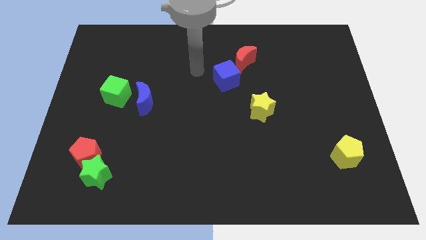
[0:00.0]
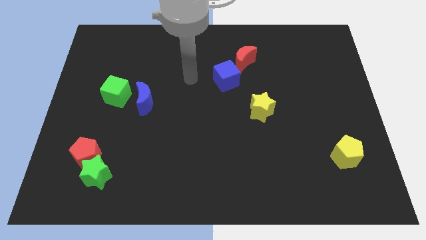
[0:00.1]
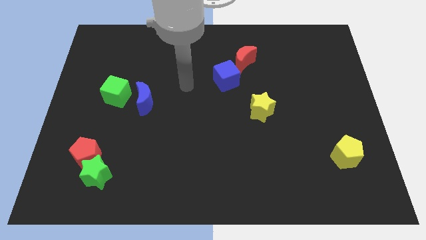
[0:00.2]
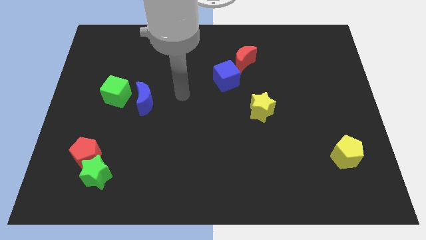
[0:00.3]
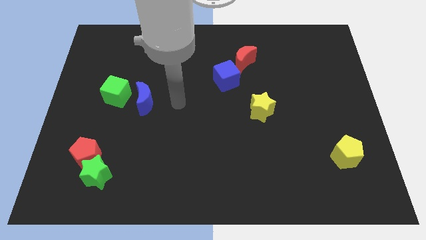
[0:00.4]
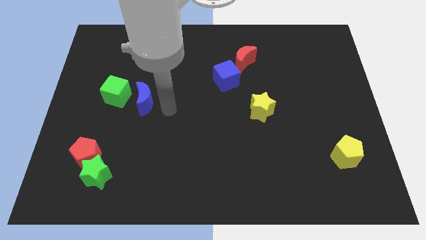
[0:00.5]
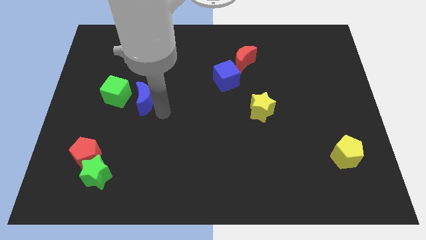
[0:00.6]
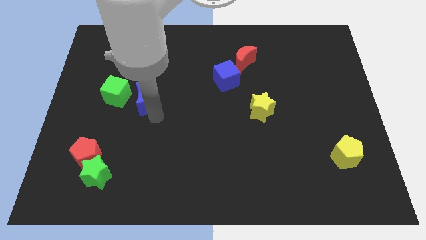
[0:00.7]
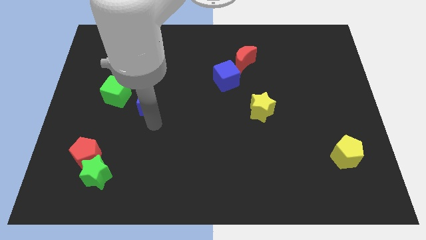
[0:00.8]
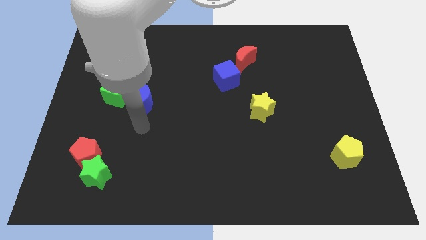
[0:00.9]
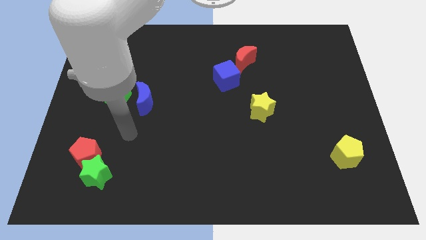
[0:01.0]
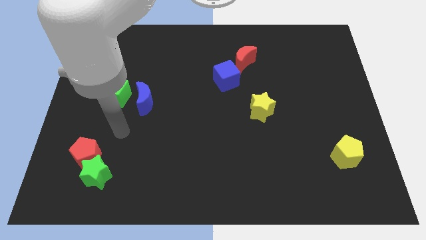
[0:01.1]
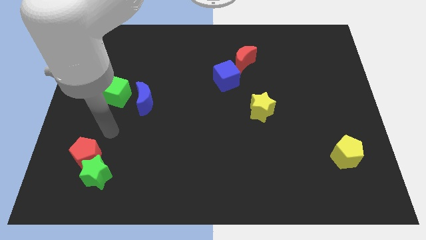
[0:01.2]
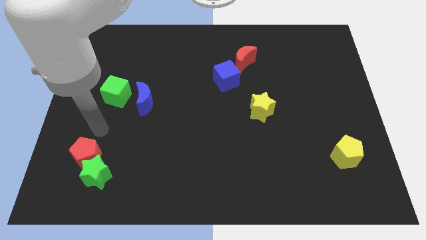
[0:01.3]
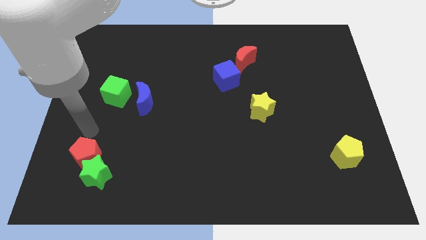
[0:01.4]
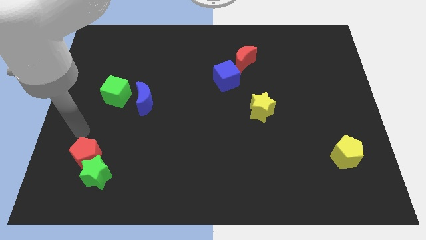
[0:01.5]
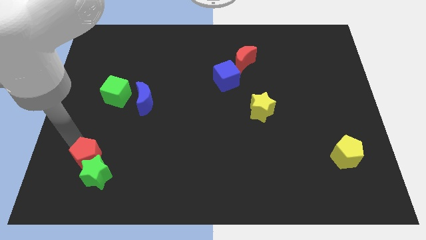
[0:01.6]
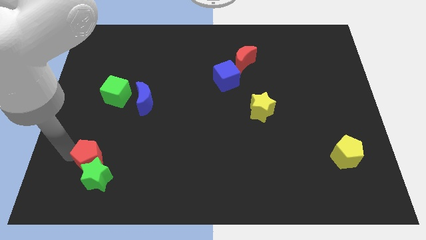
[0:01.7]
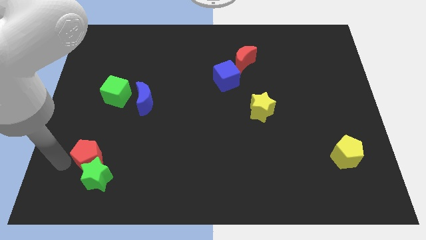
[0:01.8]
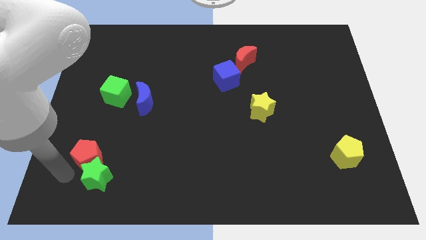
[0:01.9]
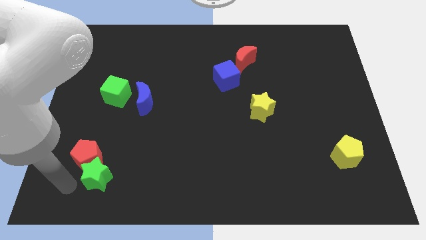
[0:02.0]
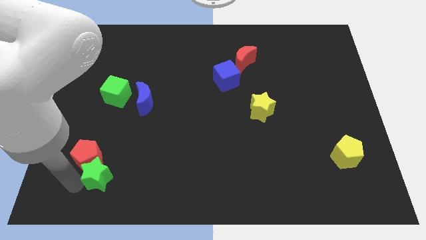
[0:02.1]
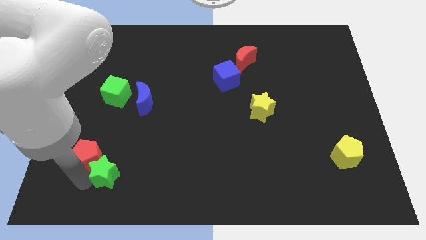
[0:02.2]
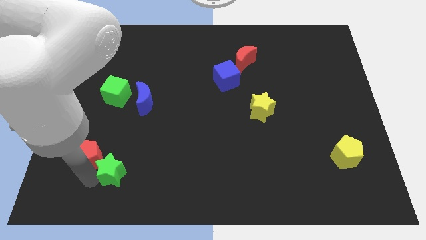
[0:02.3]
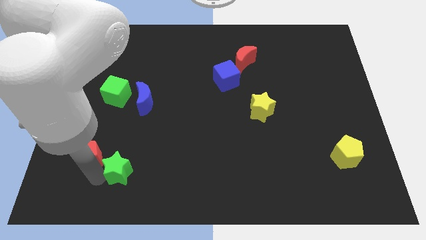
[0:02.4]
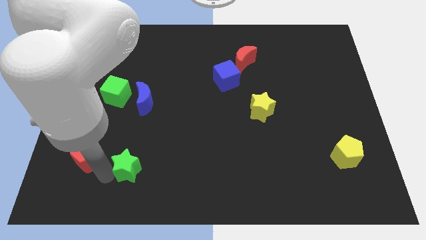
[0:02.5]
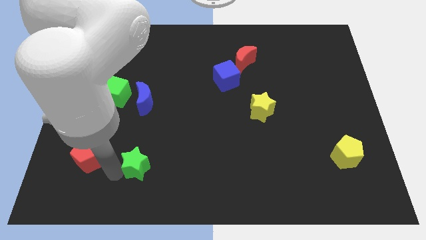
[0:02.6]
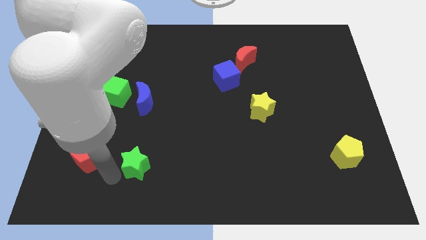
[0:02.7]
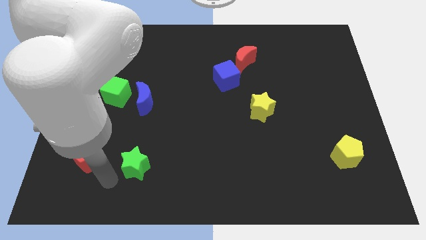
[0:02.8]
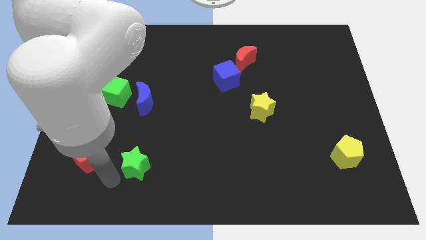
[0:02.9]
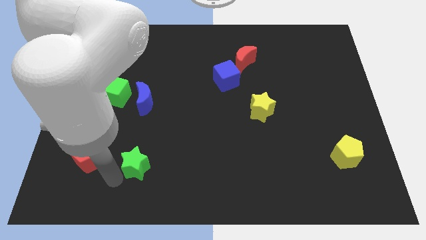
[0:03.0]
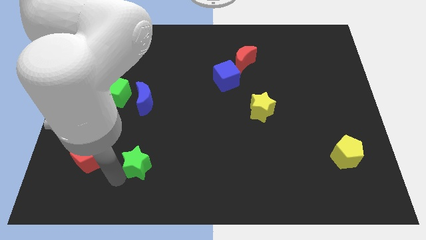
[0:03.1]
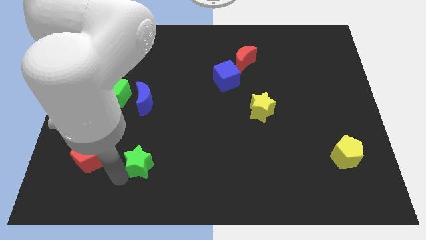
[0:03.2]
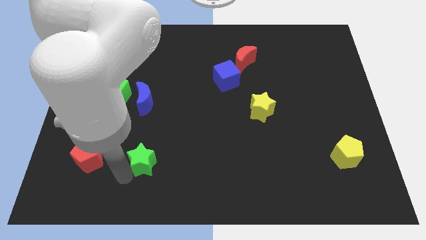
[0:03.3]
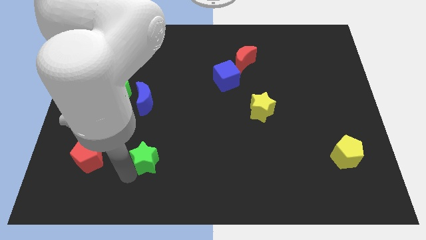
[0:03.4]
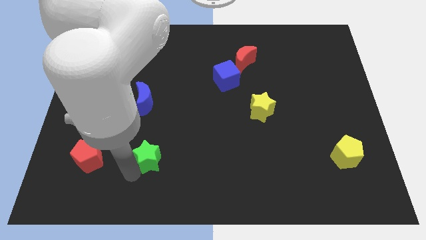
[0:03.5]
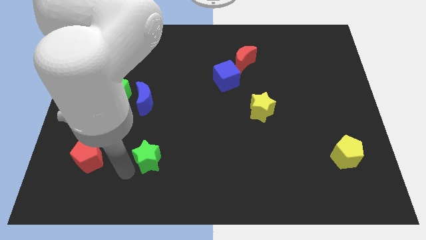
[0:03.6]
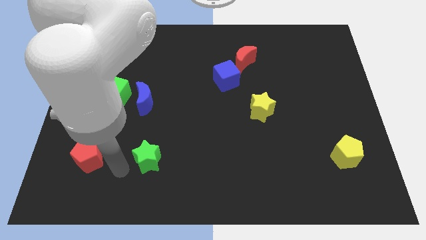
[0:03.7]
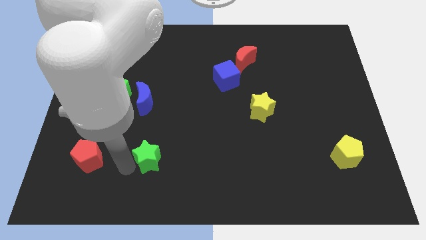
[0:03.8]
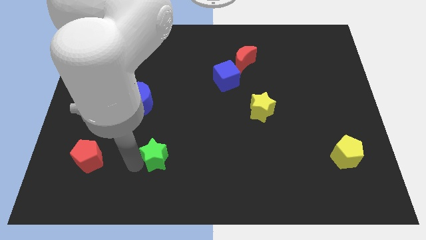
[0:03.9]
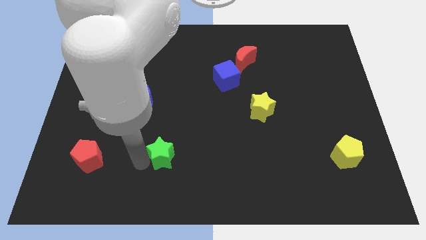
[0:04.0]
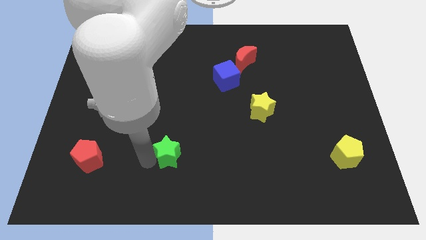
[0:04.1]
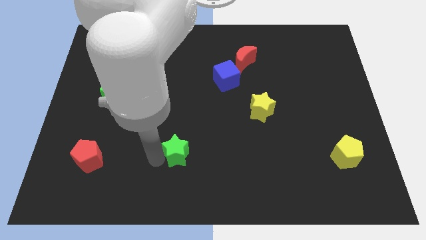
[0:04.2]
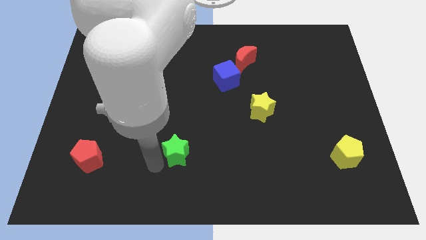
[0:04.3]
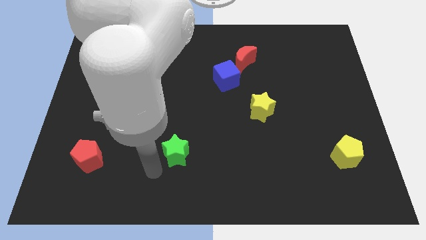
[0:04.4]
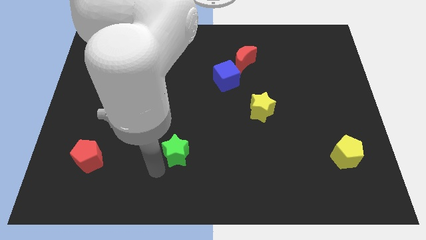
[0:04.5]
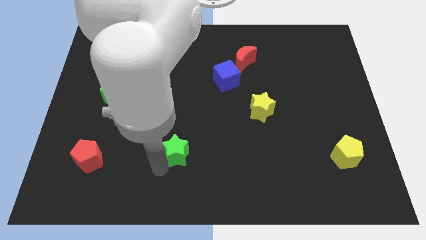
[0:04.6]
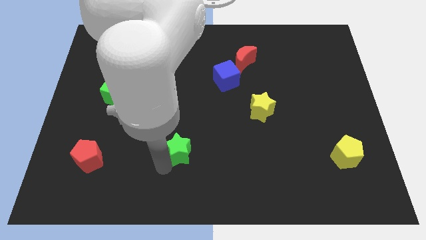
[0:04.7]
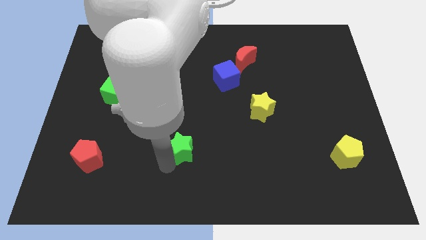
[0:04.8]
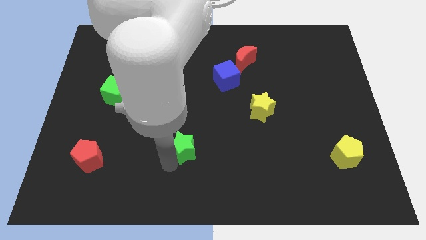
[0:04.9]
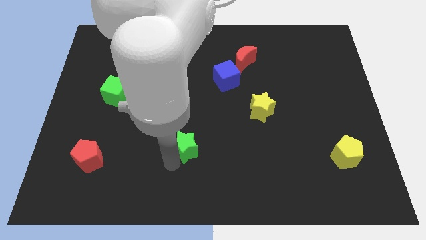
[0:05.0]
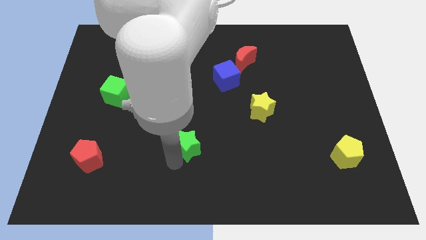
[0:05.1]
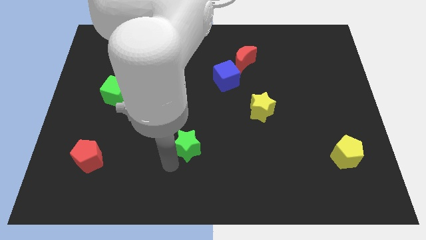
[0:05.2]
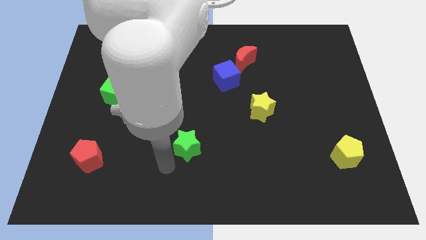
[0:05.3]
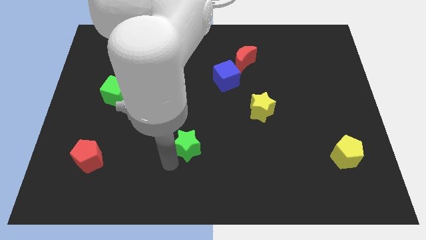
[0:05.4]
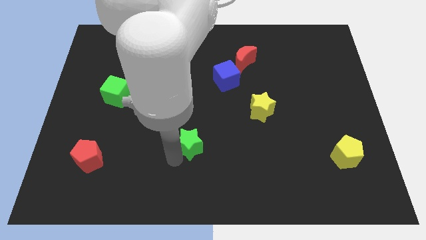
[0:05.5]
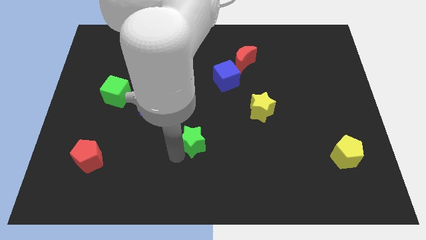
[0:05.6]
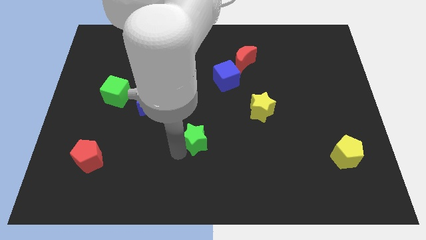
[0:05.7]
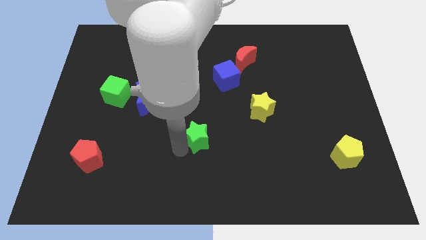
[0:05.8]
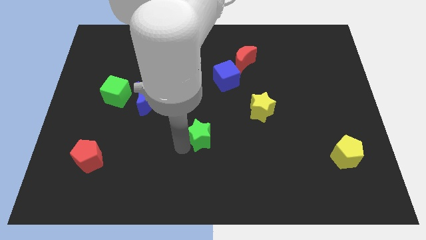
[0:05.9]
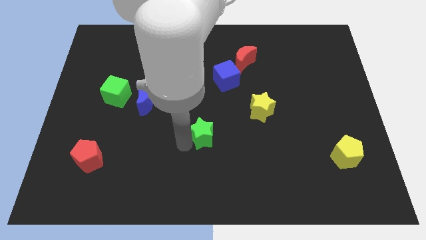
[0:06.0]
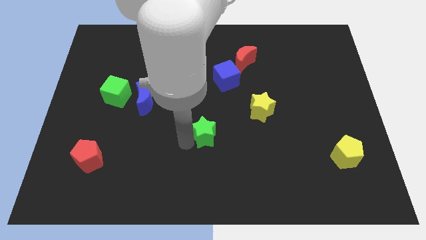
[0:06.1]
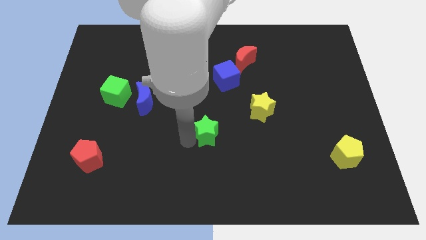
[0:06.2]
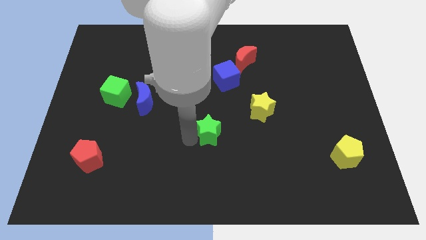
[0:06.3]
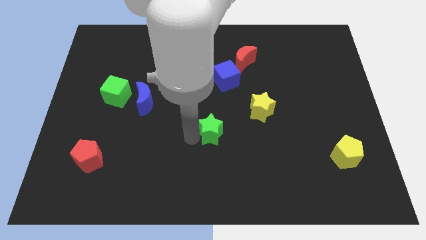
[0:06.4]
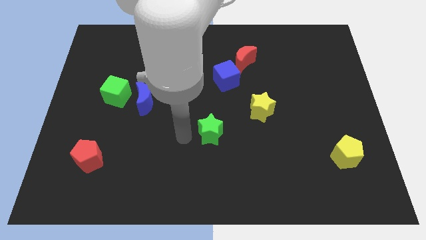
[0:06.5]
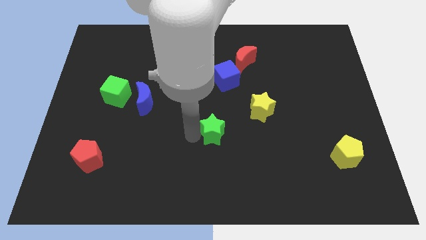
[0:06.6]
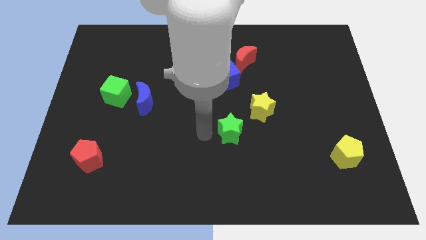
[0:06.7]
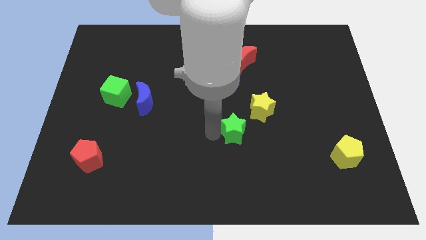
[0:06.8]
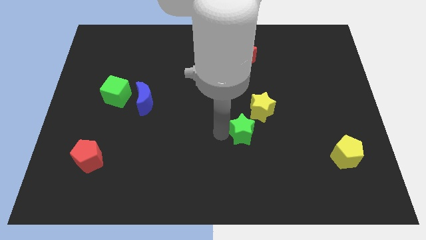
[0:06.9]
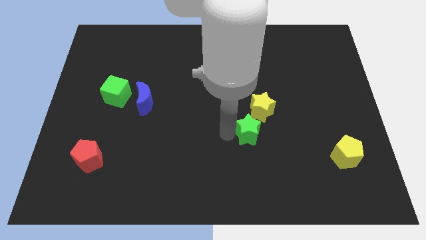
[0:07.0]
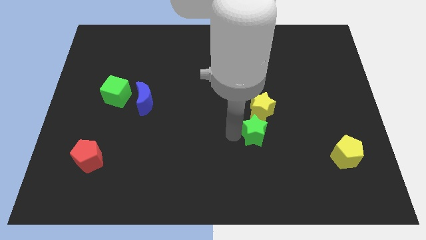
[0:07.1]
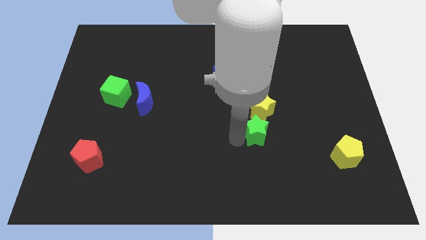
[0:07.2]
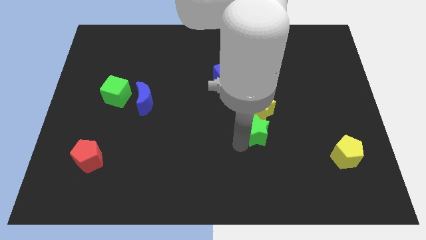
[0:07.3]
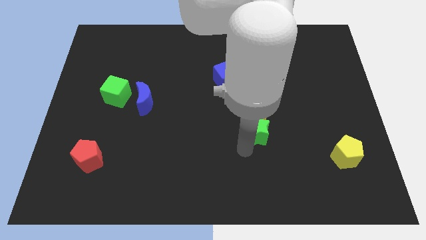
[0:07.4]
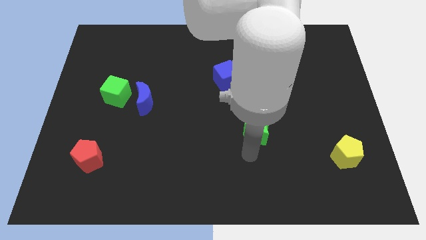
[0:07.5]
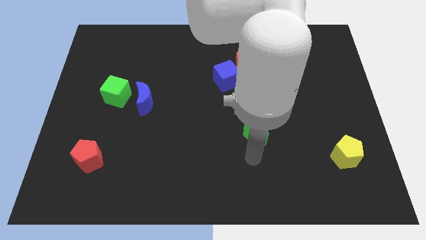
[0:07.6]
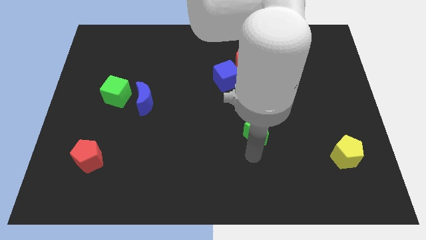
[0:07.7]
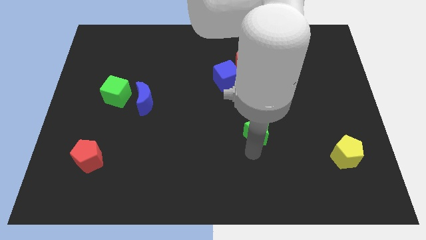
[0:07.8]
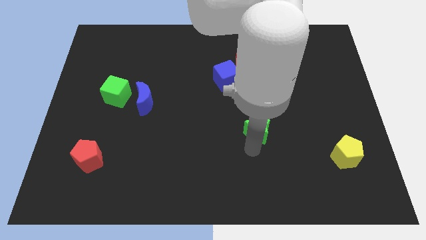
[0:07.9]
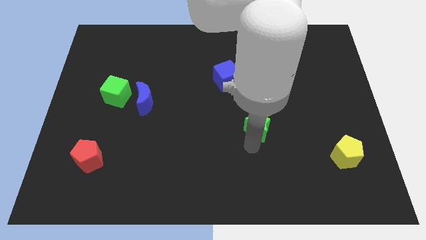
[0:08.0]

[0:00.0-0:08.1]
put the green star next to the yellow star
